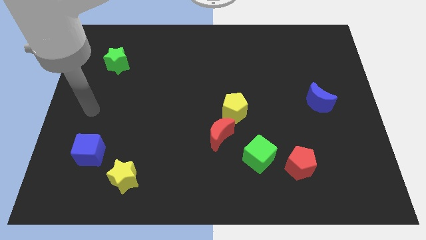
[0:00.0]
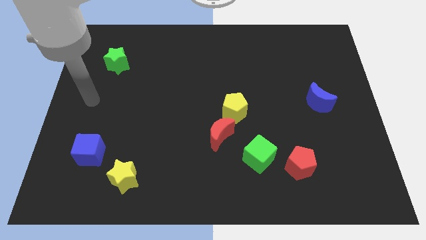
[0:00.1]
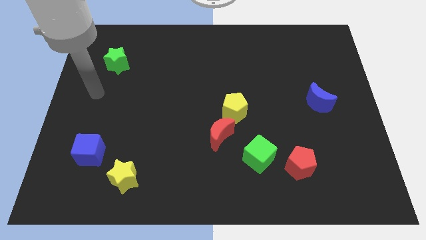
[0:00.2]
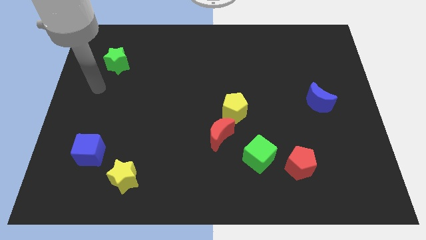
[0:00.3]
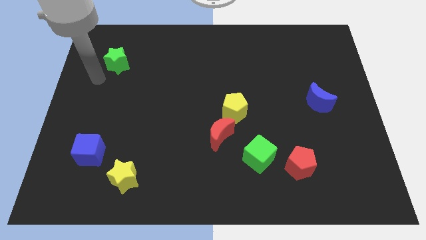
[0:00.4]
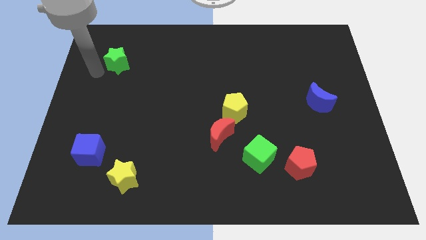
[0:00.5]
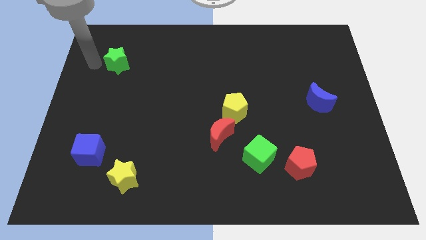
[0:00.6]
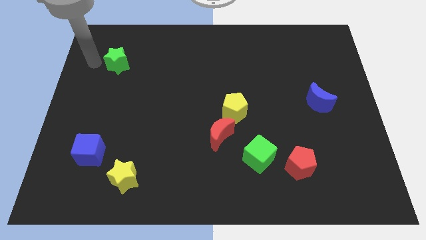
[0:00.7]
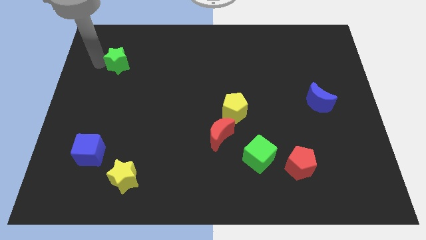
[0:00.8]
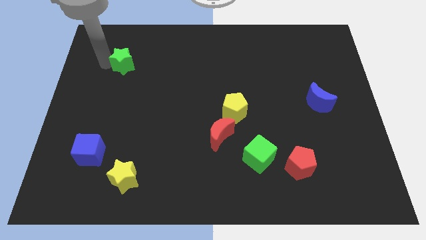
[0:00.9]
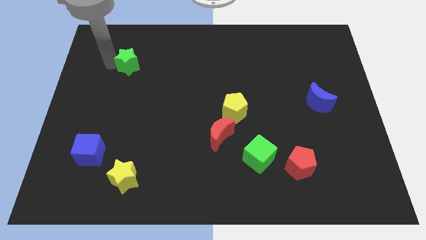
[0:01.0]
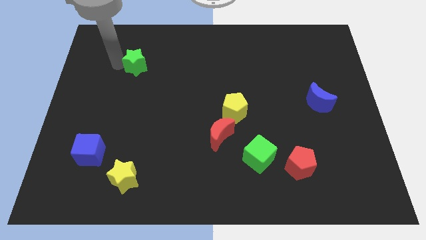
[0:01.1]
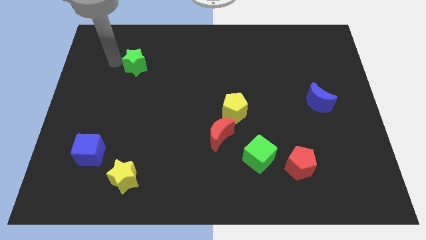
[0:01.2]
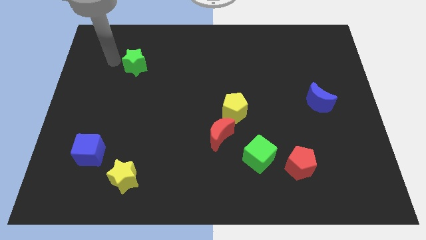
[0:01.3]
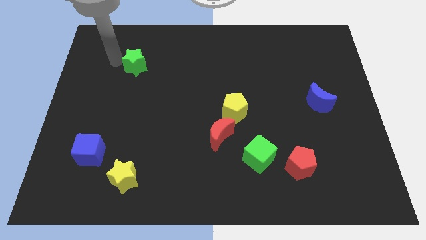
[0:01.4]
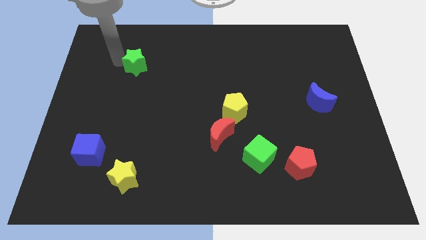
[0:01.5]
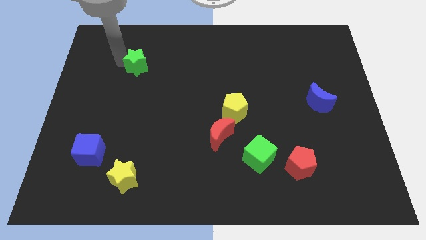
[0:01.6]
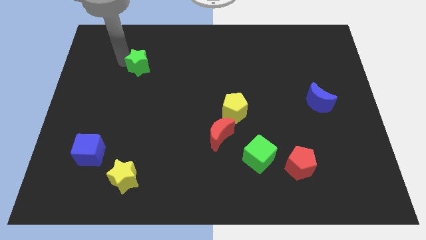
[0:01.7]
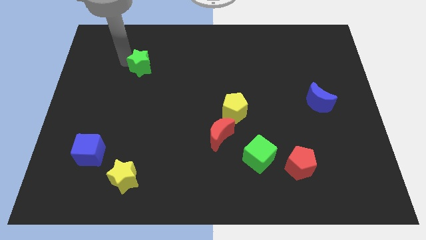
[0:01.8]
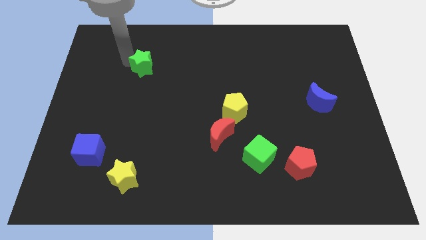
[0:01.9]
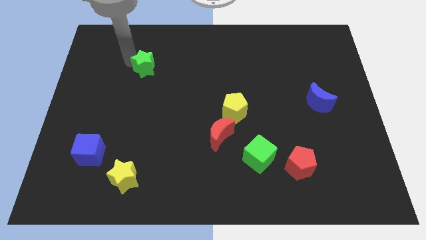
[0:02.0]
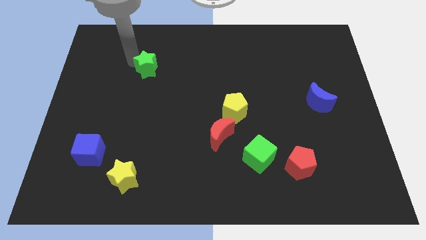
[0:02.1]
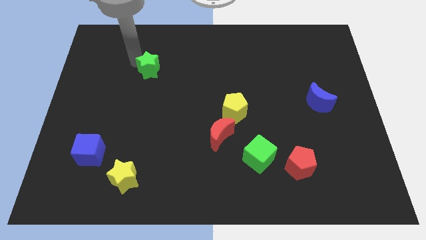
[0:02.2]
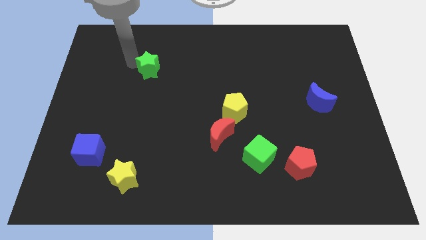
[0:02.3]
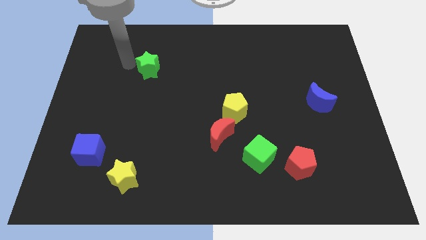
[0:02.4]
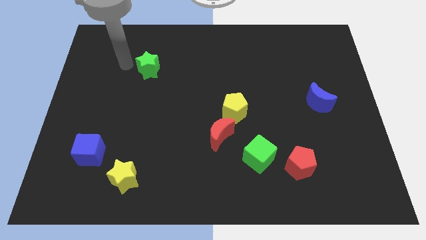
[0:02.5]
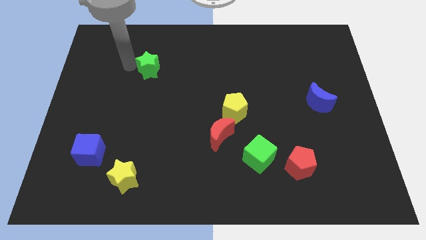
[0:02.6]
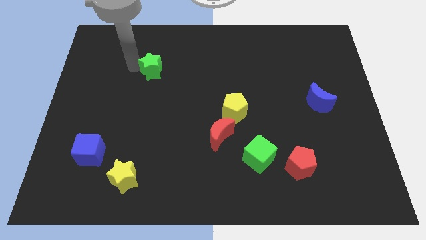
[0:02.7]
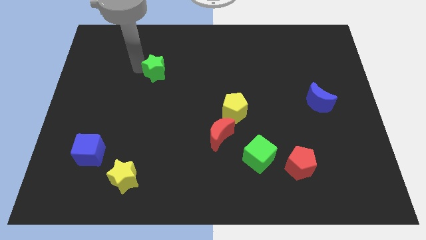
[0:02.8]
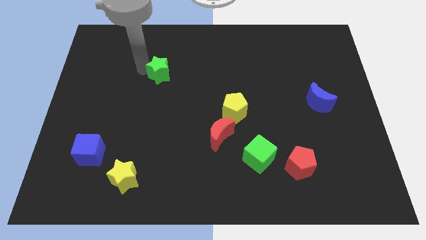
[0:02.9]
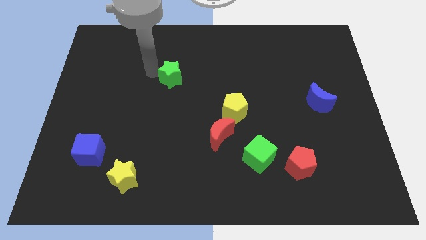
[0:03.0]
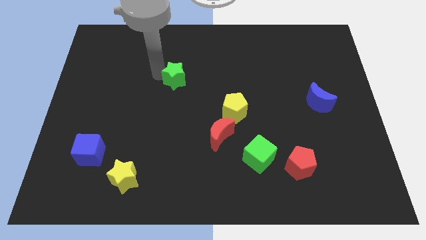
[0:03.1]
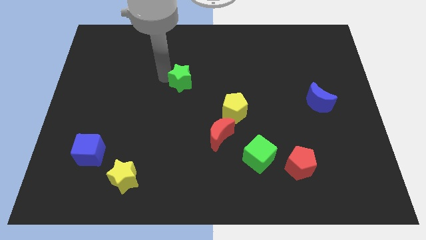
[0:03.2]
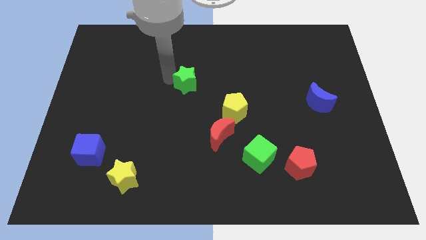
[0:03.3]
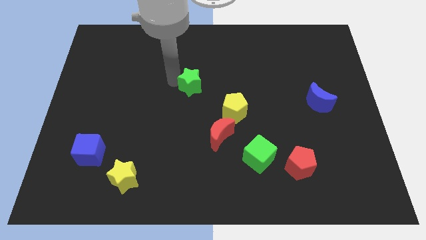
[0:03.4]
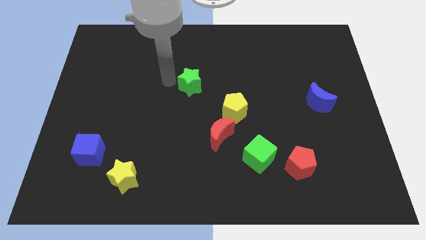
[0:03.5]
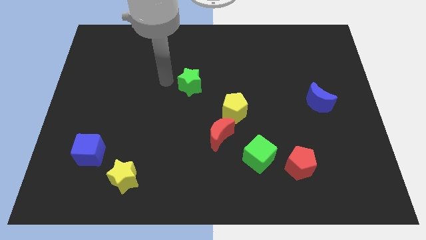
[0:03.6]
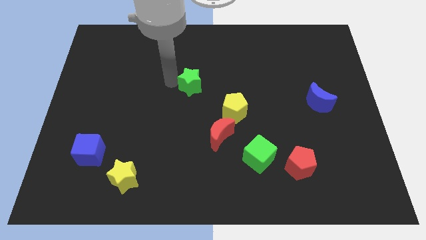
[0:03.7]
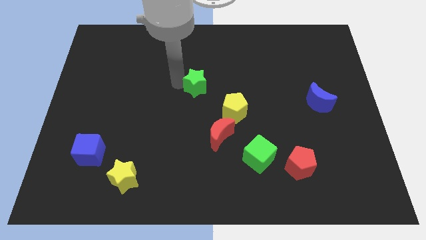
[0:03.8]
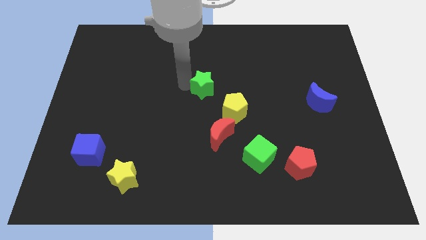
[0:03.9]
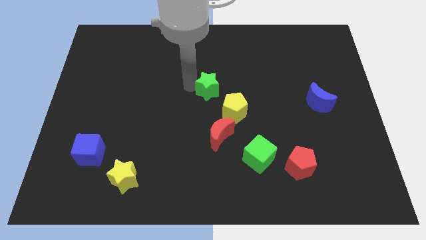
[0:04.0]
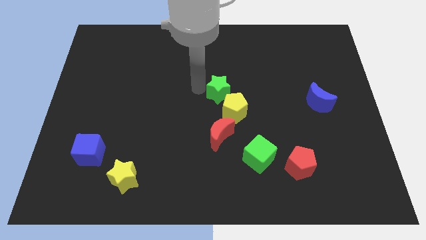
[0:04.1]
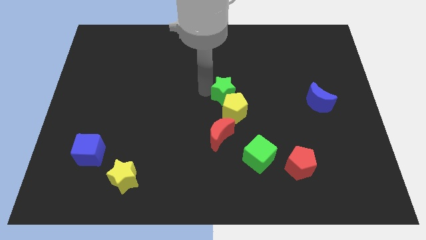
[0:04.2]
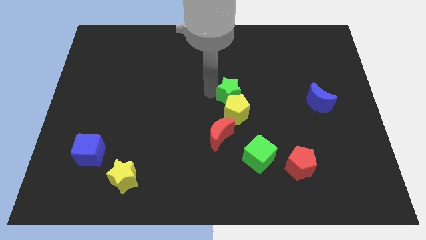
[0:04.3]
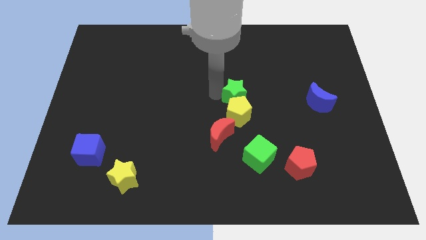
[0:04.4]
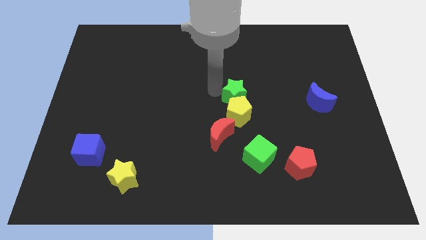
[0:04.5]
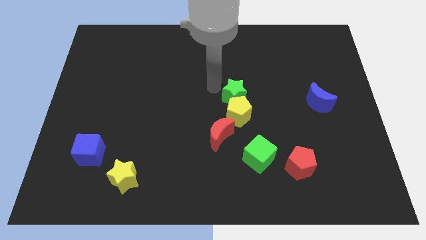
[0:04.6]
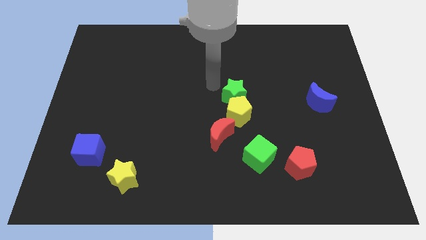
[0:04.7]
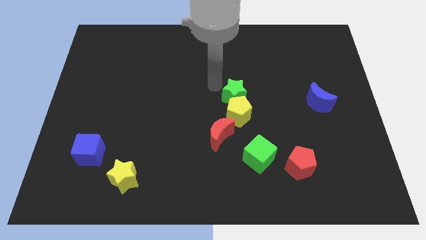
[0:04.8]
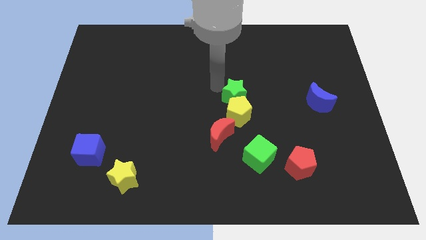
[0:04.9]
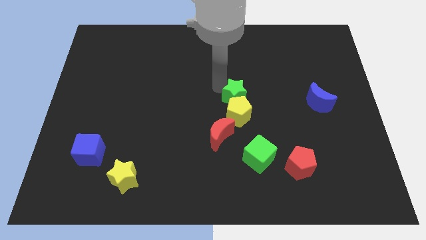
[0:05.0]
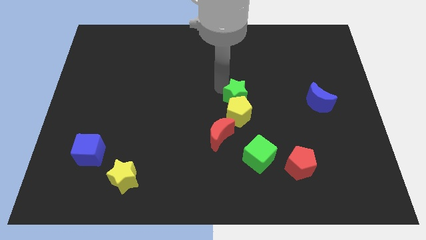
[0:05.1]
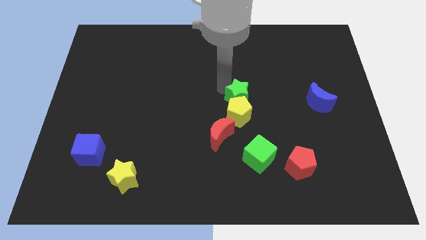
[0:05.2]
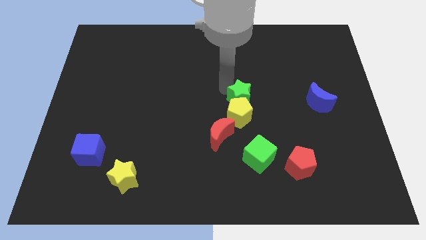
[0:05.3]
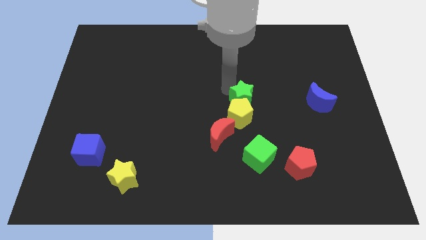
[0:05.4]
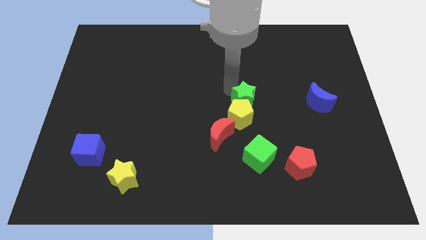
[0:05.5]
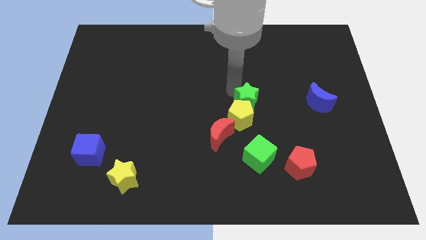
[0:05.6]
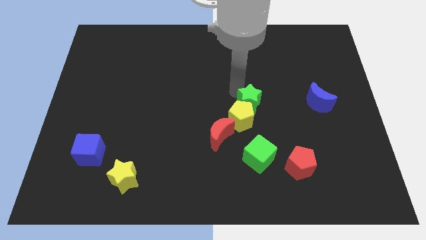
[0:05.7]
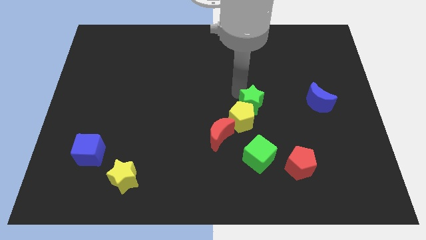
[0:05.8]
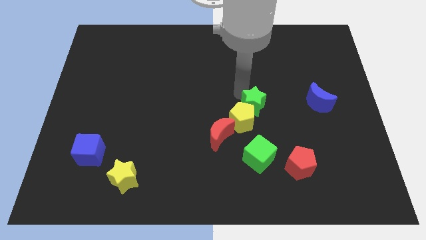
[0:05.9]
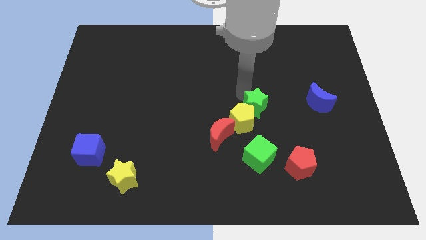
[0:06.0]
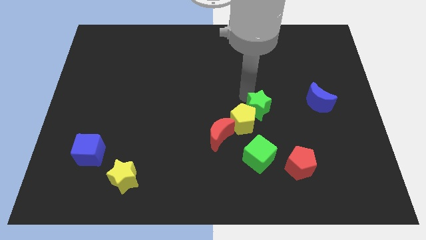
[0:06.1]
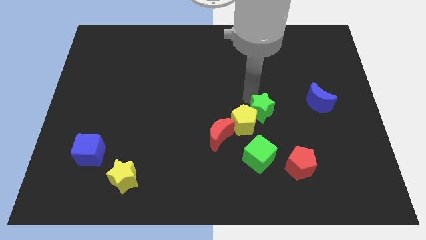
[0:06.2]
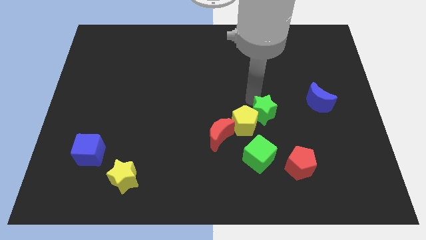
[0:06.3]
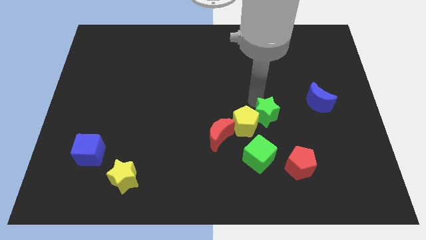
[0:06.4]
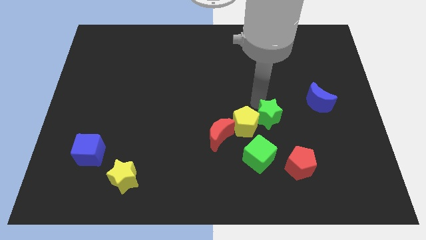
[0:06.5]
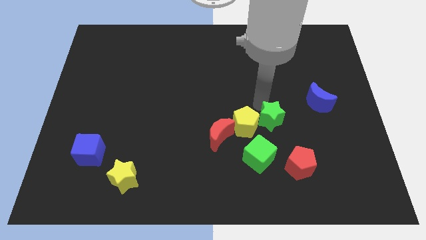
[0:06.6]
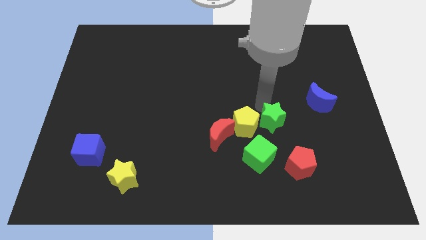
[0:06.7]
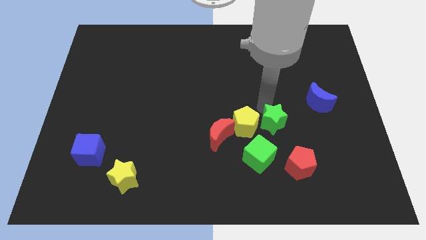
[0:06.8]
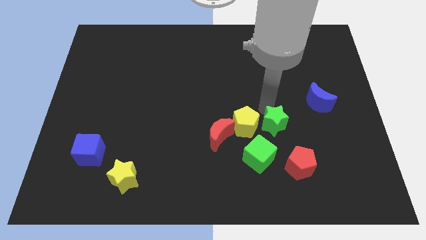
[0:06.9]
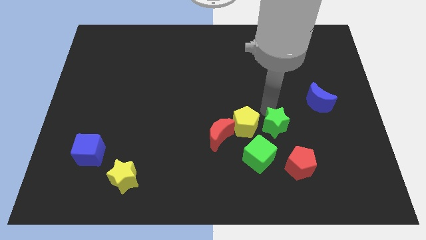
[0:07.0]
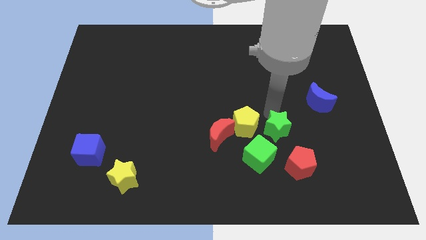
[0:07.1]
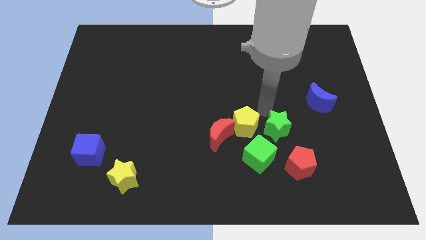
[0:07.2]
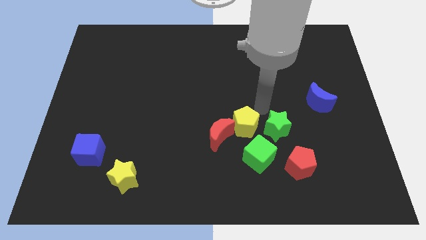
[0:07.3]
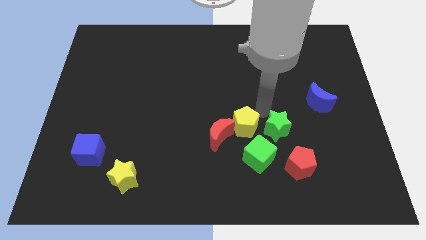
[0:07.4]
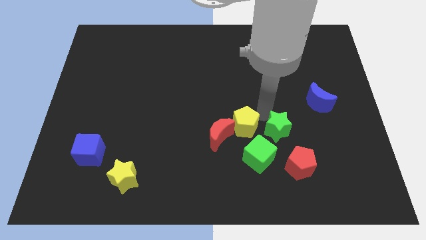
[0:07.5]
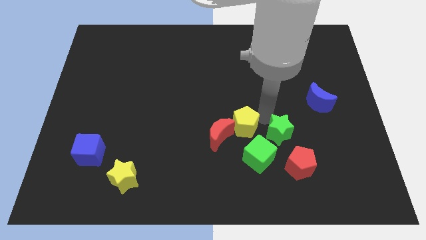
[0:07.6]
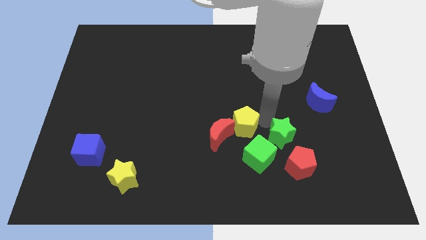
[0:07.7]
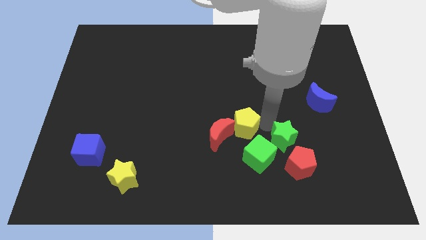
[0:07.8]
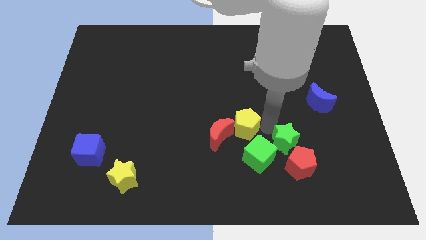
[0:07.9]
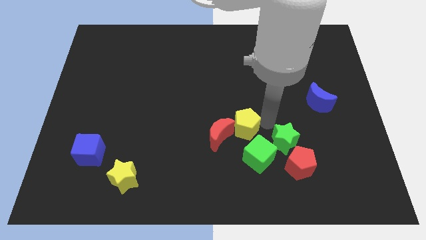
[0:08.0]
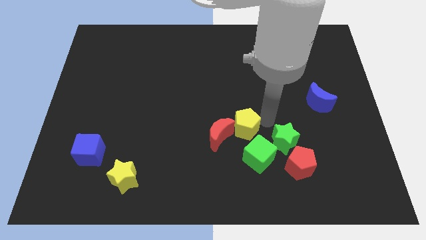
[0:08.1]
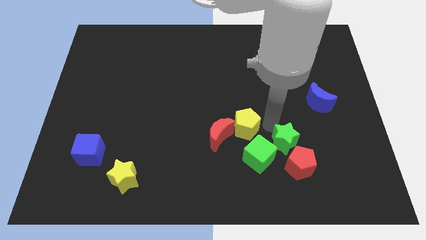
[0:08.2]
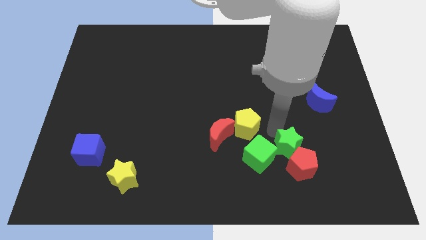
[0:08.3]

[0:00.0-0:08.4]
push the green star towards the red pentagon
